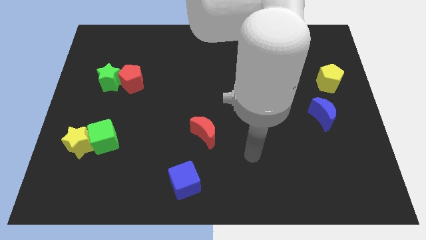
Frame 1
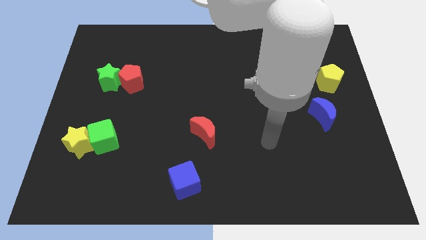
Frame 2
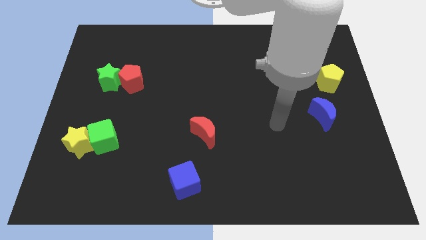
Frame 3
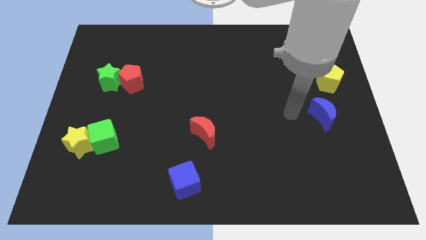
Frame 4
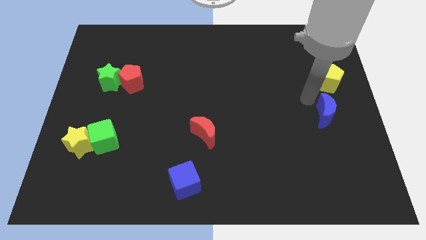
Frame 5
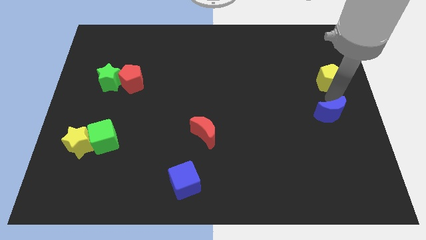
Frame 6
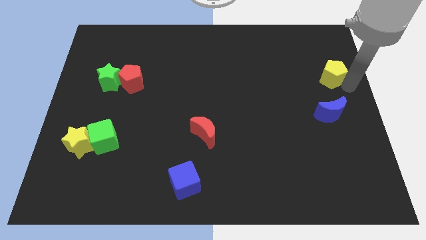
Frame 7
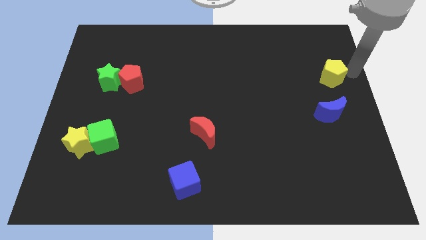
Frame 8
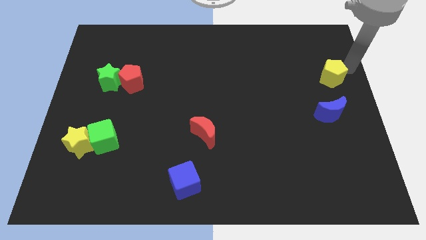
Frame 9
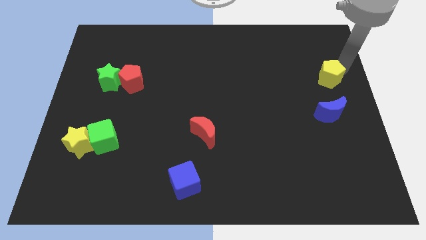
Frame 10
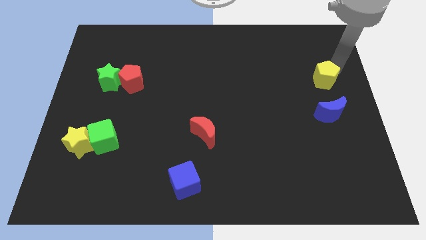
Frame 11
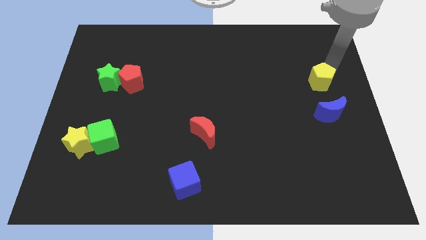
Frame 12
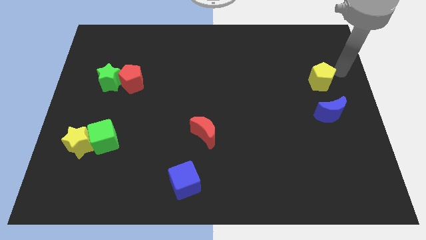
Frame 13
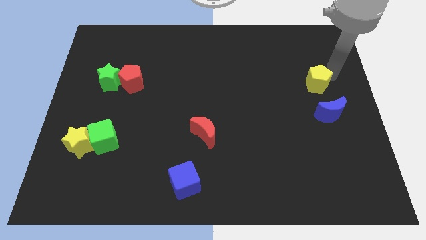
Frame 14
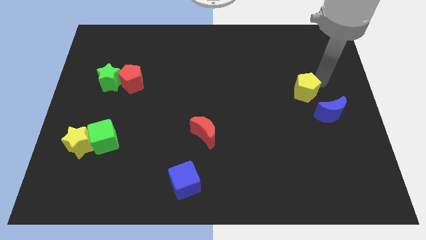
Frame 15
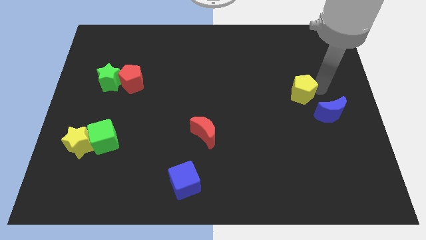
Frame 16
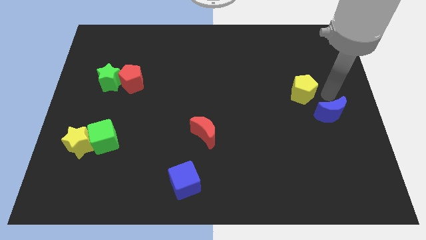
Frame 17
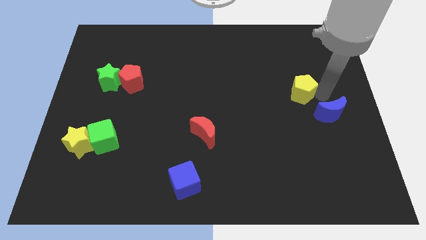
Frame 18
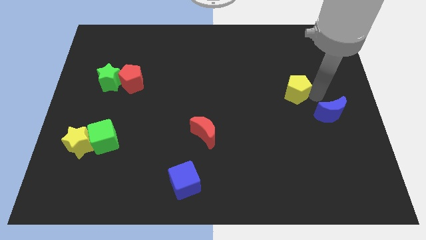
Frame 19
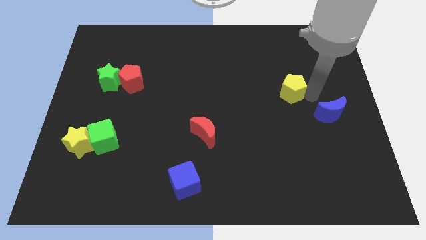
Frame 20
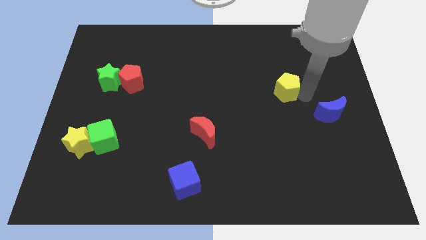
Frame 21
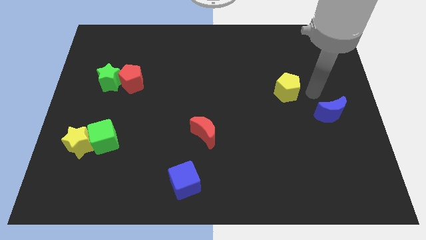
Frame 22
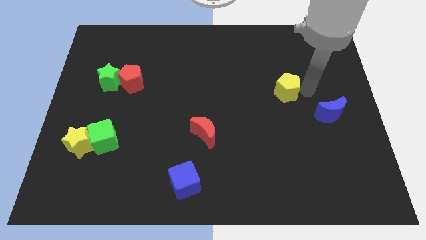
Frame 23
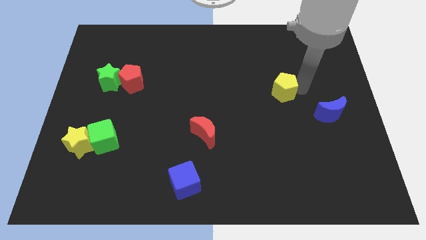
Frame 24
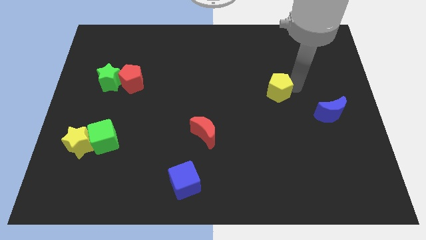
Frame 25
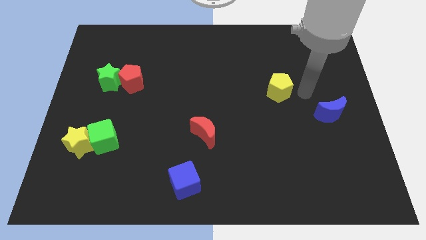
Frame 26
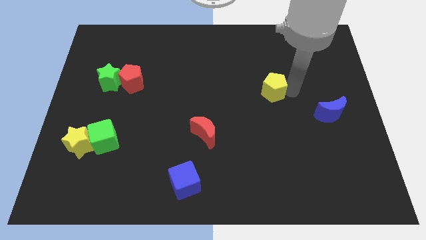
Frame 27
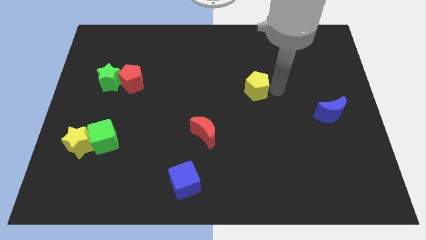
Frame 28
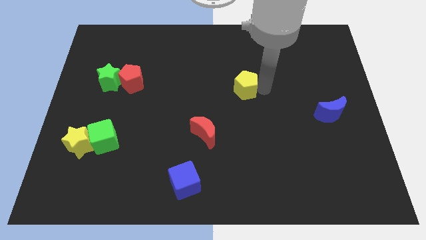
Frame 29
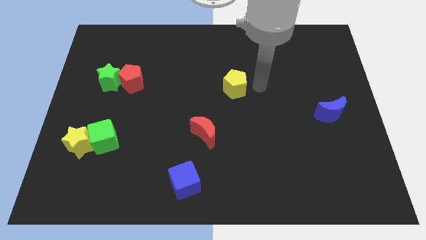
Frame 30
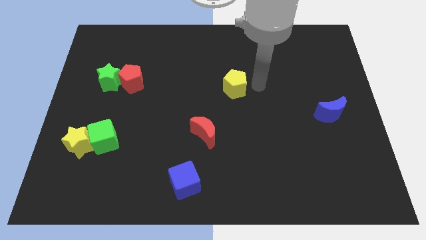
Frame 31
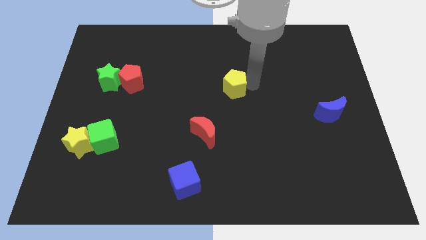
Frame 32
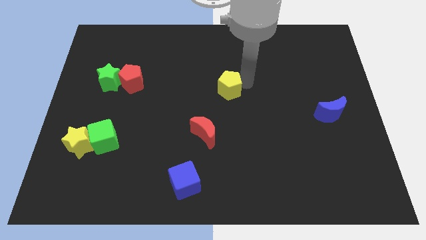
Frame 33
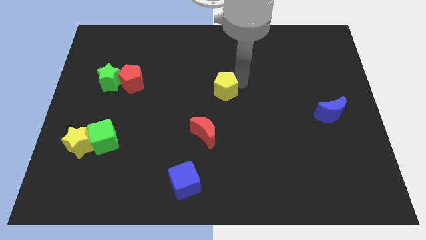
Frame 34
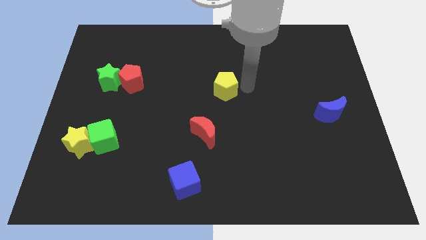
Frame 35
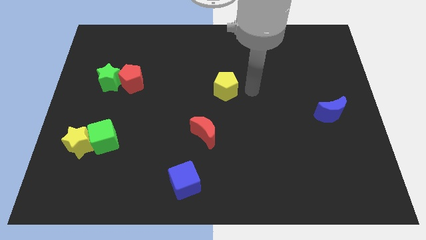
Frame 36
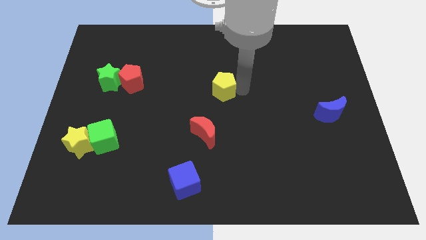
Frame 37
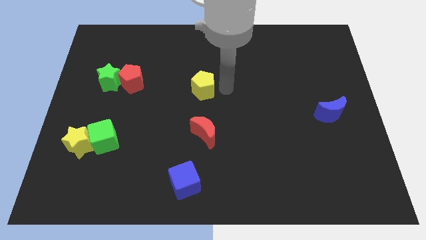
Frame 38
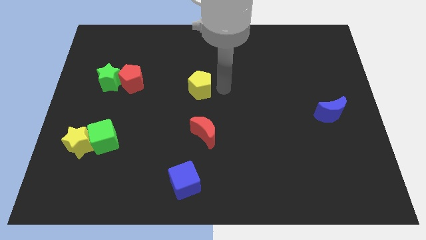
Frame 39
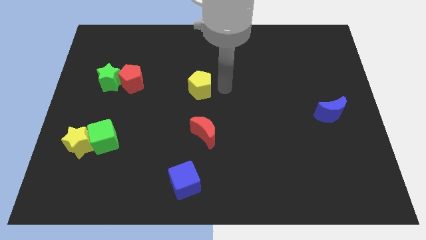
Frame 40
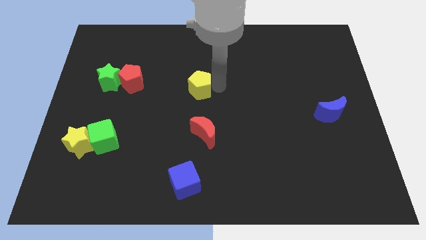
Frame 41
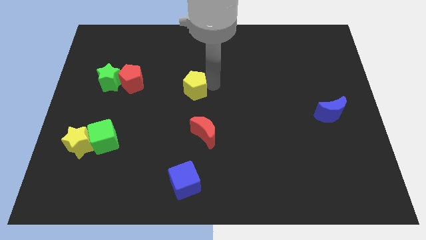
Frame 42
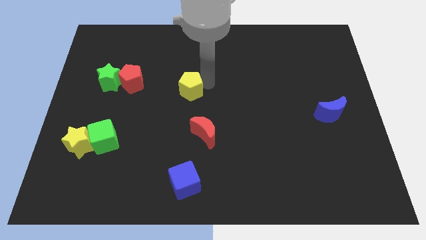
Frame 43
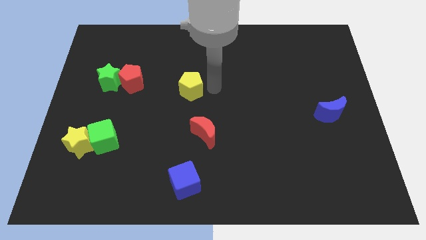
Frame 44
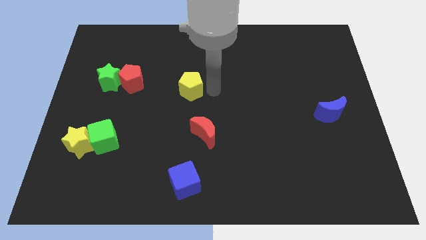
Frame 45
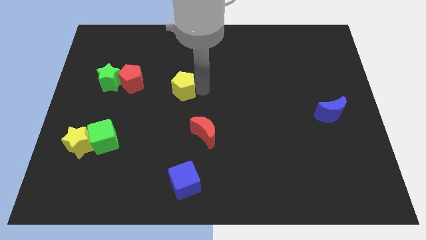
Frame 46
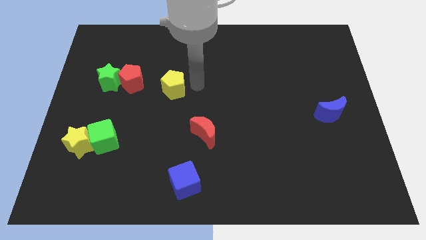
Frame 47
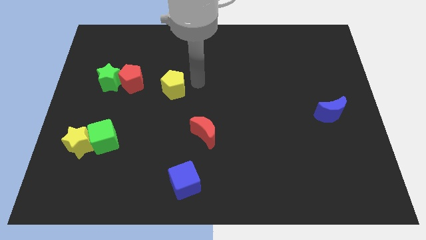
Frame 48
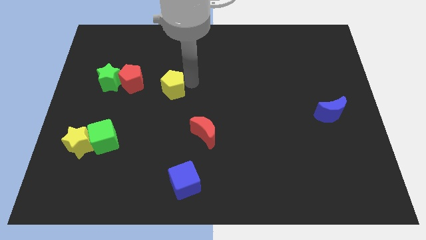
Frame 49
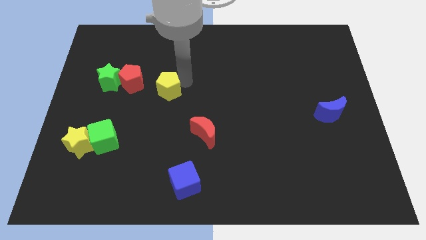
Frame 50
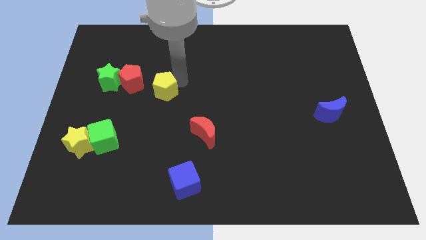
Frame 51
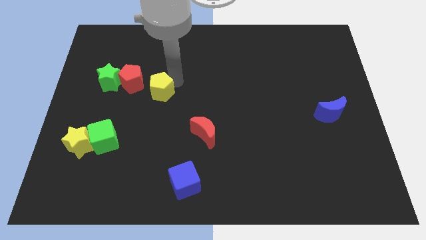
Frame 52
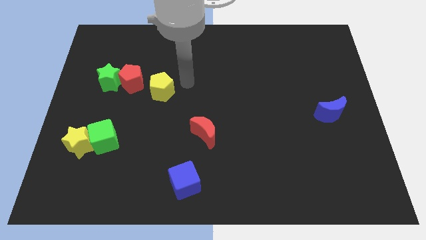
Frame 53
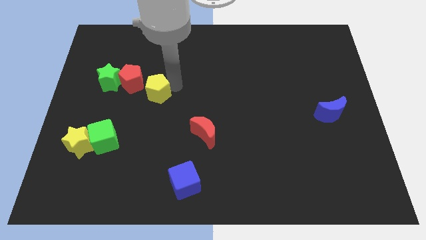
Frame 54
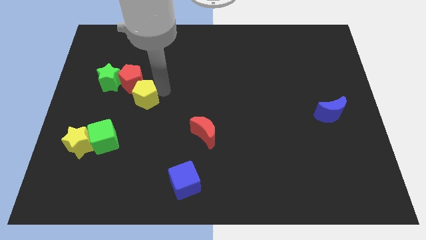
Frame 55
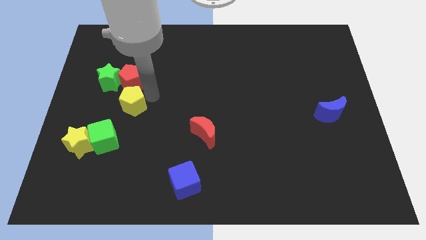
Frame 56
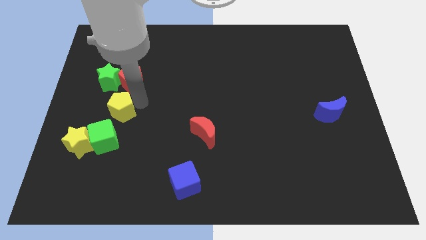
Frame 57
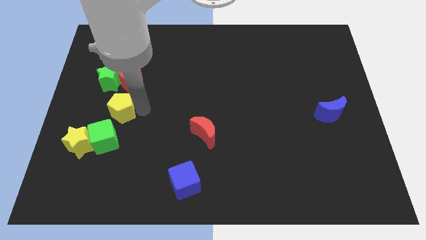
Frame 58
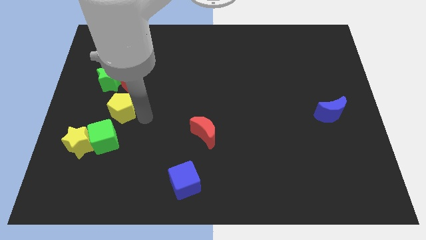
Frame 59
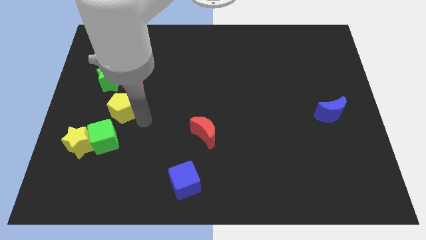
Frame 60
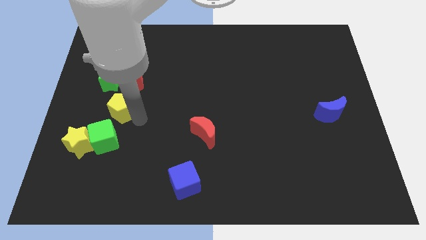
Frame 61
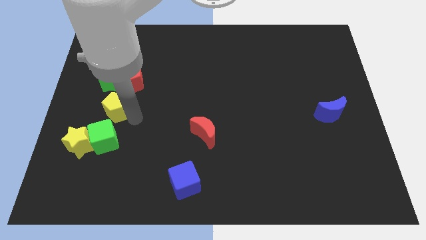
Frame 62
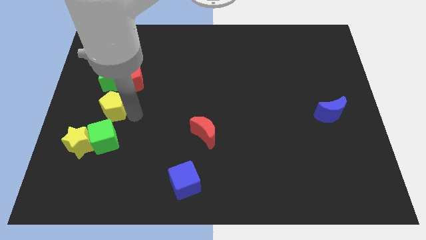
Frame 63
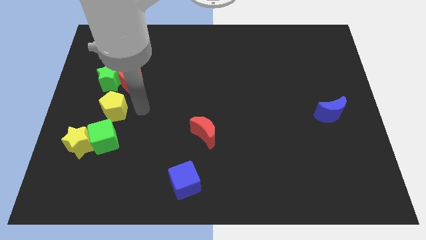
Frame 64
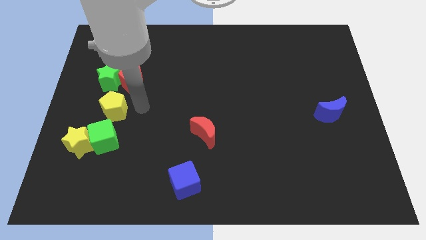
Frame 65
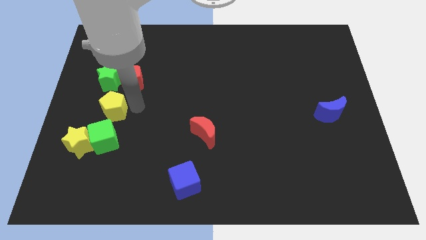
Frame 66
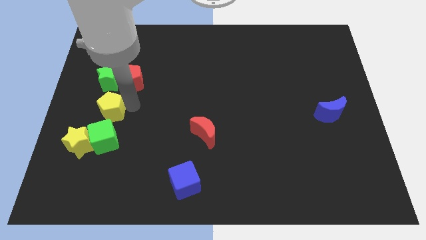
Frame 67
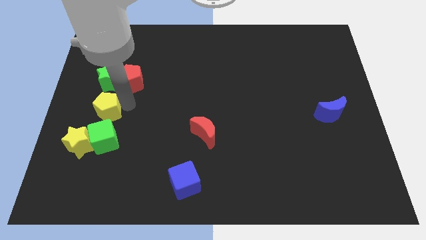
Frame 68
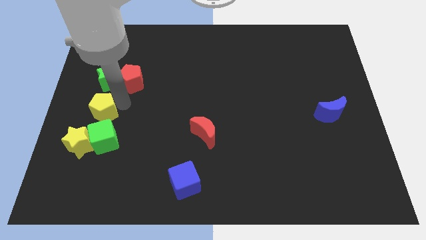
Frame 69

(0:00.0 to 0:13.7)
slide the yellow pentagon to the left side
